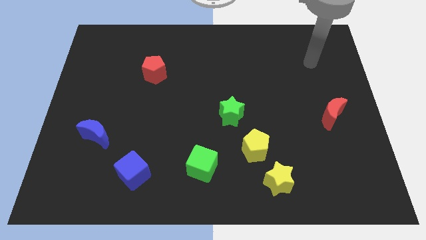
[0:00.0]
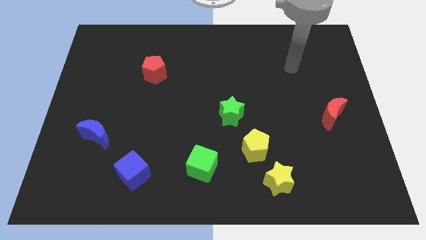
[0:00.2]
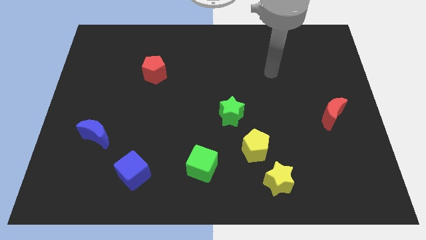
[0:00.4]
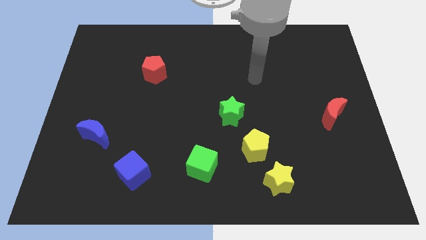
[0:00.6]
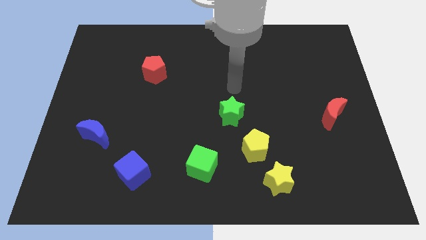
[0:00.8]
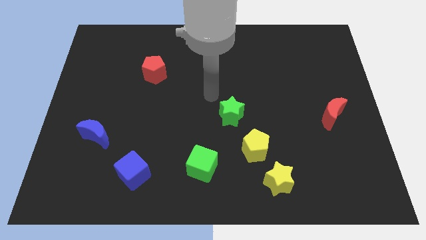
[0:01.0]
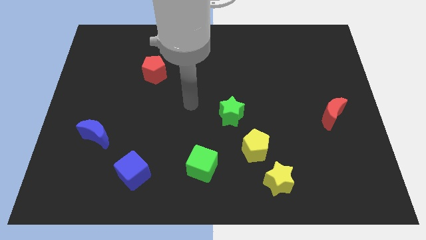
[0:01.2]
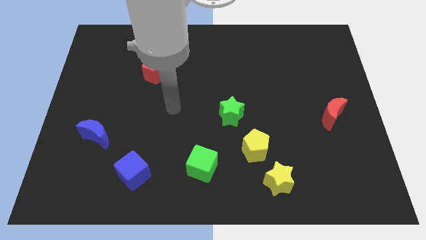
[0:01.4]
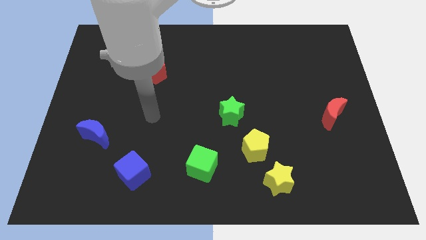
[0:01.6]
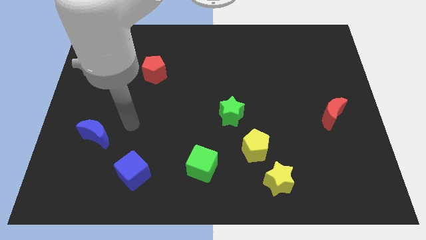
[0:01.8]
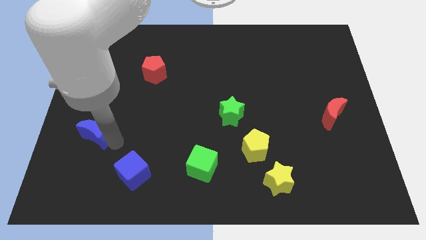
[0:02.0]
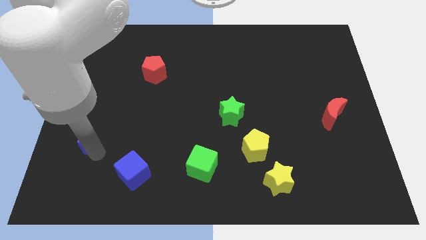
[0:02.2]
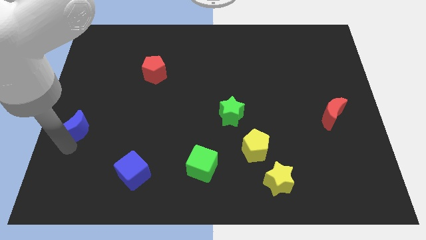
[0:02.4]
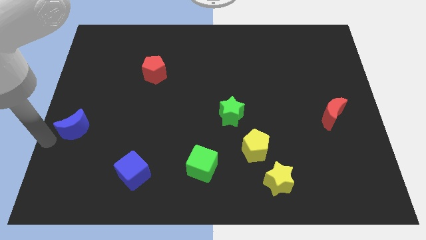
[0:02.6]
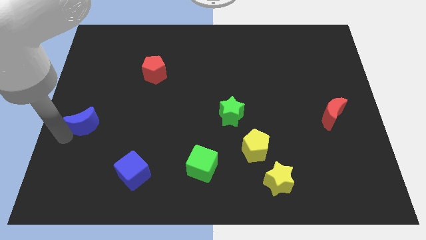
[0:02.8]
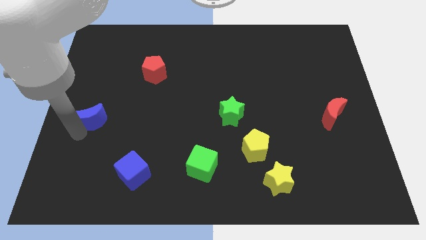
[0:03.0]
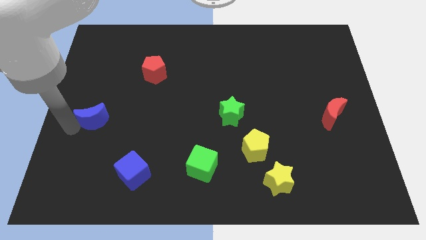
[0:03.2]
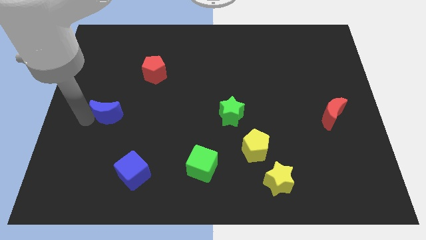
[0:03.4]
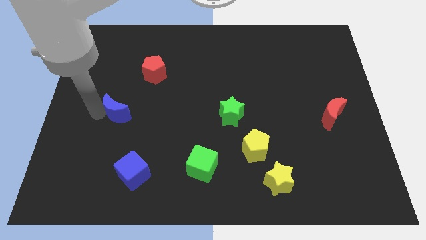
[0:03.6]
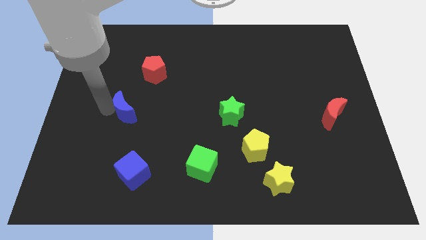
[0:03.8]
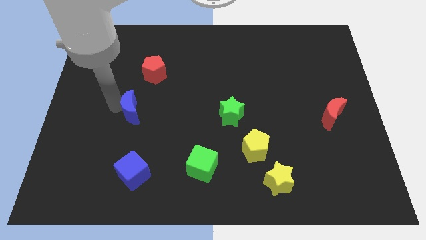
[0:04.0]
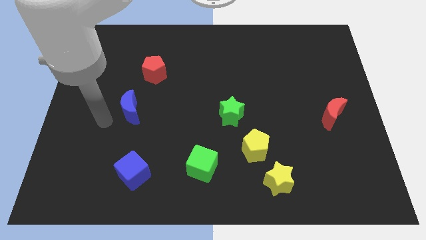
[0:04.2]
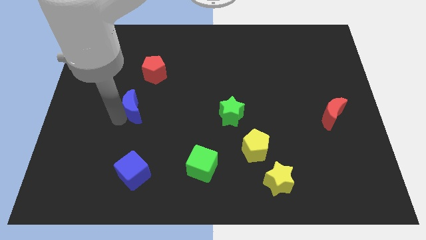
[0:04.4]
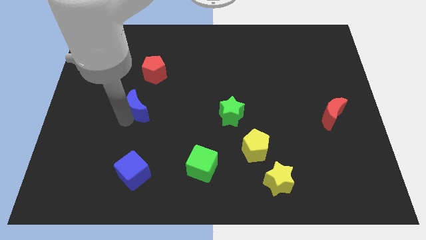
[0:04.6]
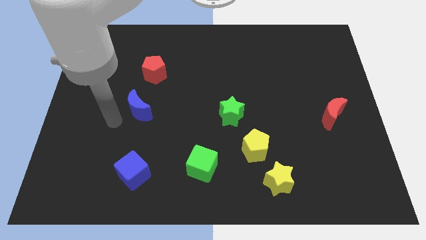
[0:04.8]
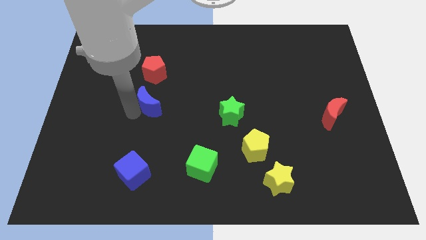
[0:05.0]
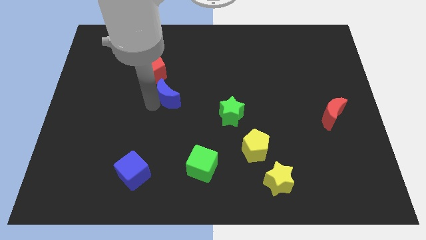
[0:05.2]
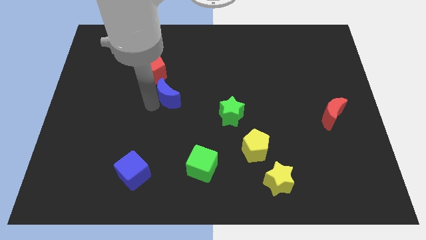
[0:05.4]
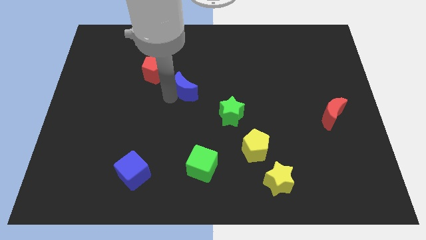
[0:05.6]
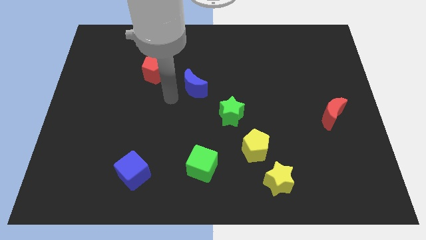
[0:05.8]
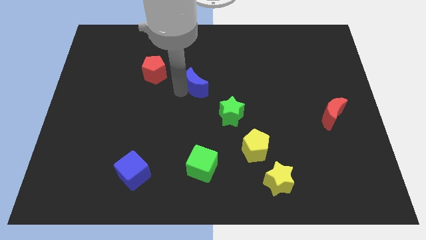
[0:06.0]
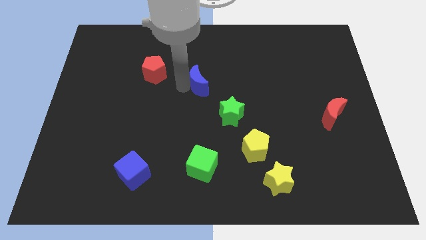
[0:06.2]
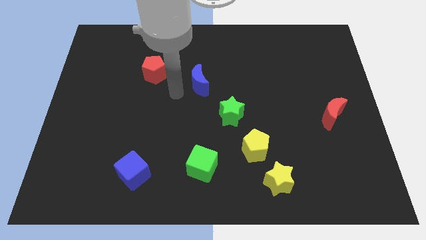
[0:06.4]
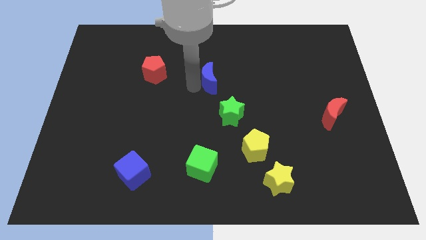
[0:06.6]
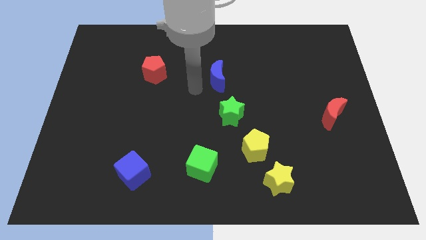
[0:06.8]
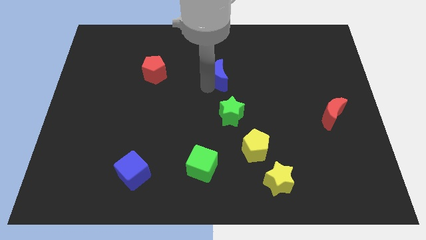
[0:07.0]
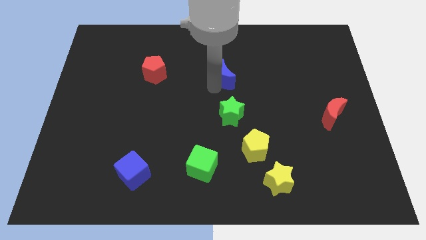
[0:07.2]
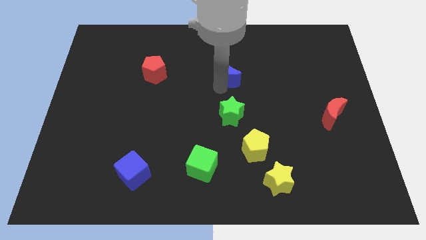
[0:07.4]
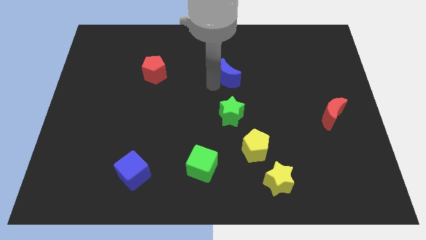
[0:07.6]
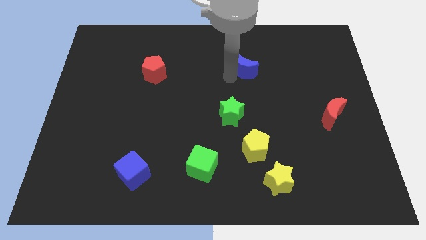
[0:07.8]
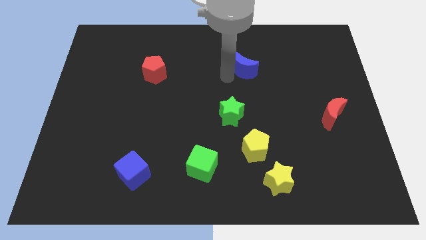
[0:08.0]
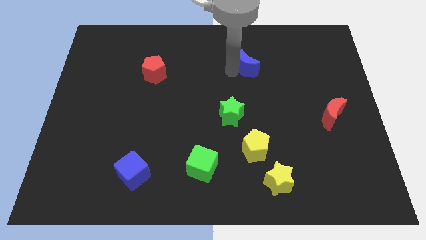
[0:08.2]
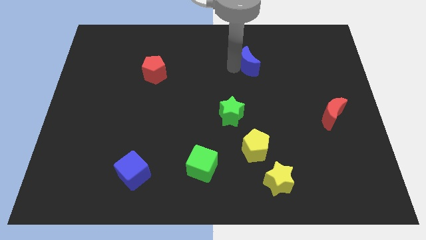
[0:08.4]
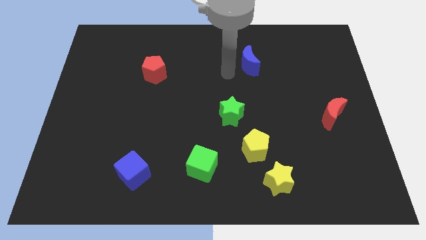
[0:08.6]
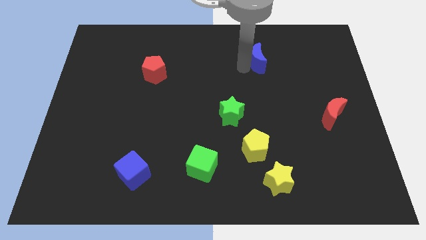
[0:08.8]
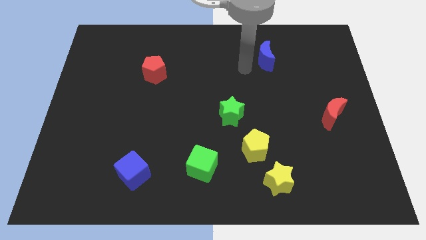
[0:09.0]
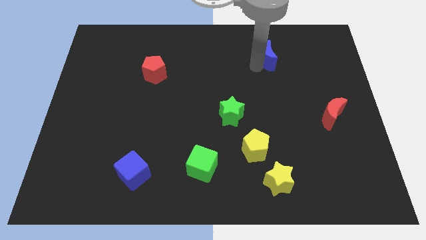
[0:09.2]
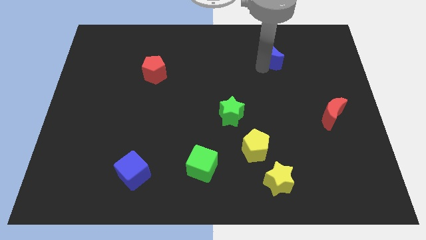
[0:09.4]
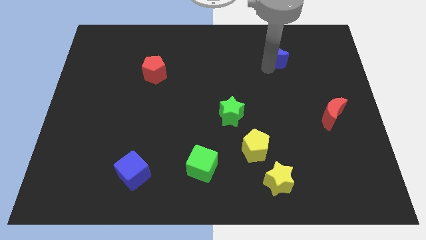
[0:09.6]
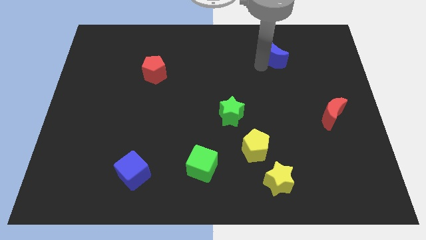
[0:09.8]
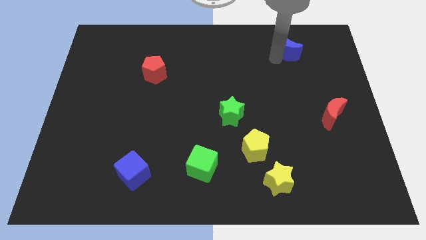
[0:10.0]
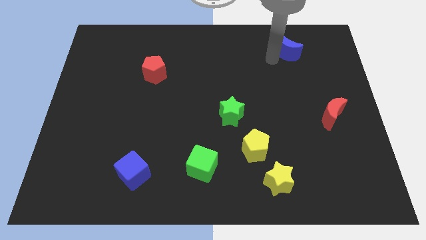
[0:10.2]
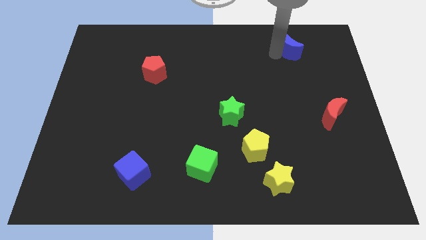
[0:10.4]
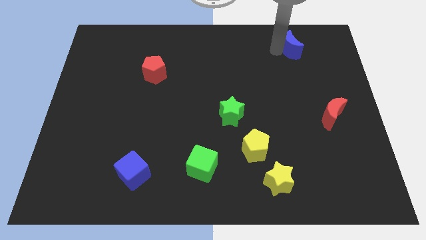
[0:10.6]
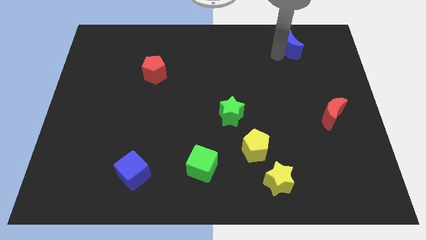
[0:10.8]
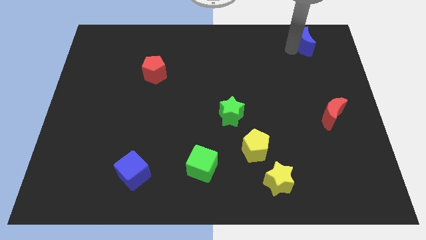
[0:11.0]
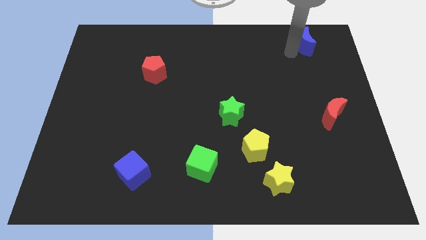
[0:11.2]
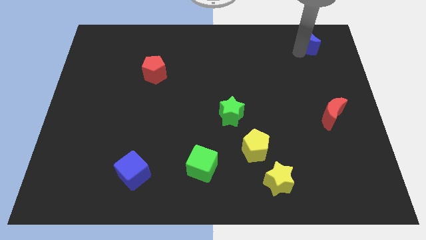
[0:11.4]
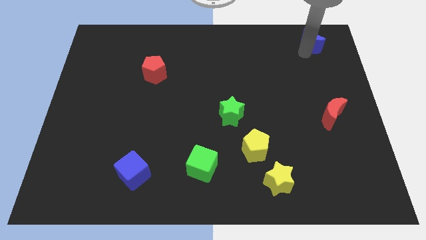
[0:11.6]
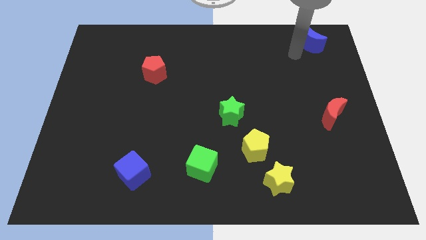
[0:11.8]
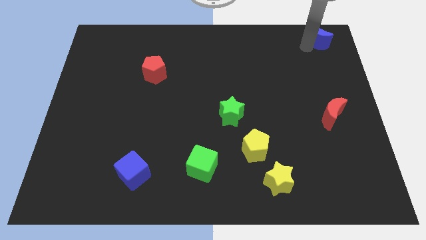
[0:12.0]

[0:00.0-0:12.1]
slide the blue moon to the top right corner
